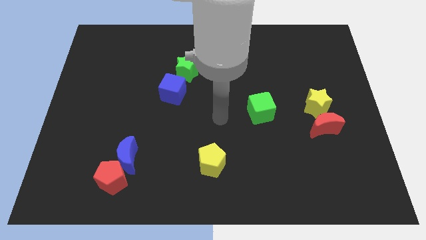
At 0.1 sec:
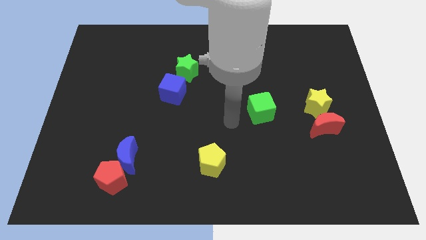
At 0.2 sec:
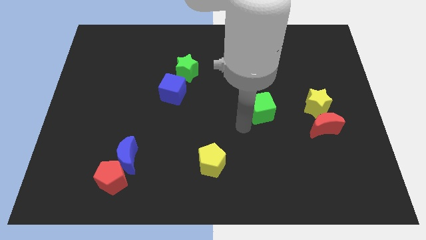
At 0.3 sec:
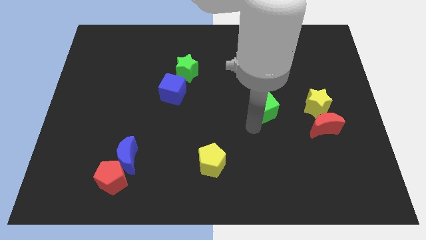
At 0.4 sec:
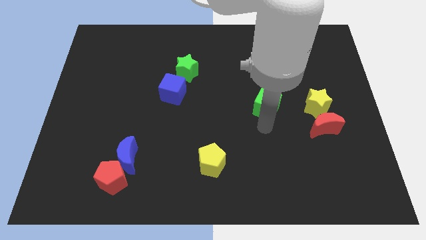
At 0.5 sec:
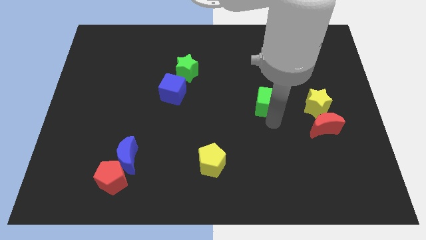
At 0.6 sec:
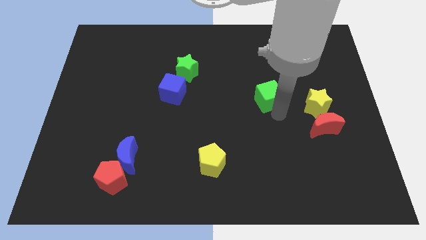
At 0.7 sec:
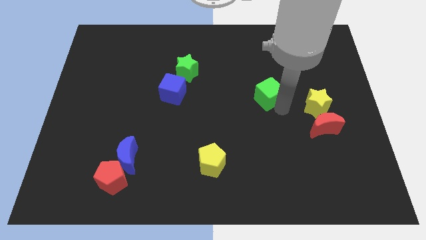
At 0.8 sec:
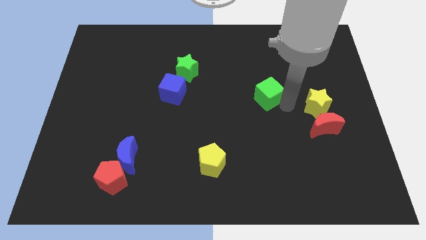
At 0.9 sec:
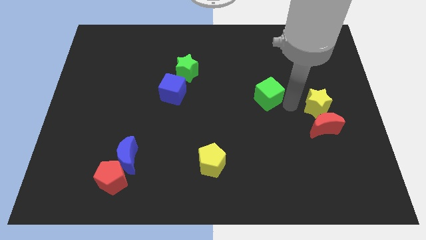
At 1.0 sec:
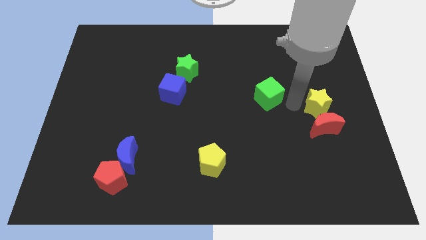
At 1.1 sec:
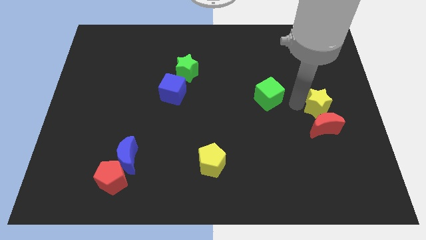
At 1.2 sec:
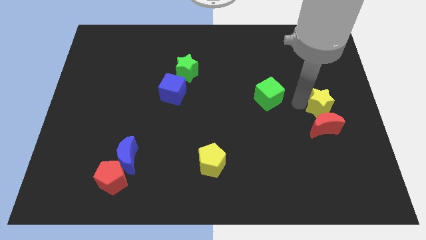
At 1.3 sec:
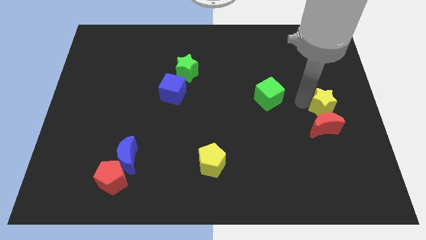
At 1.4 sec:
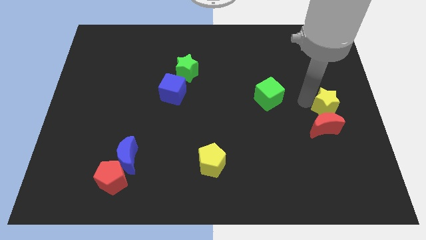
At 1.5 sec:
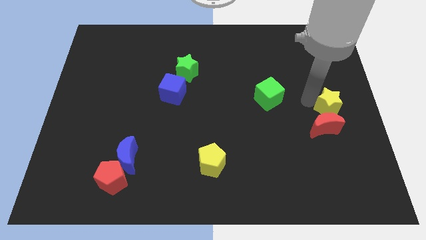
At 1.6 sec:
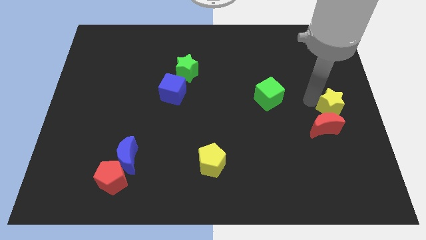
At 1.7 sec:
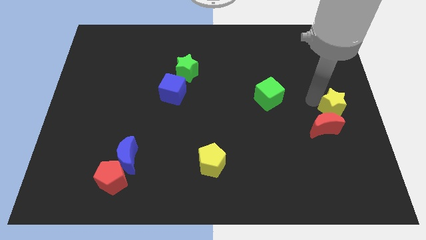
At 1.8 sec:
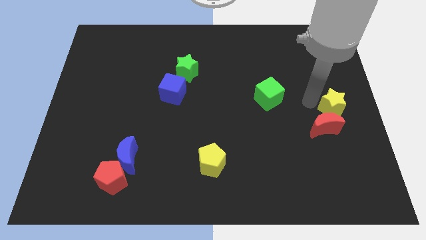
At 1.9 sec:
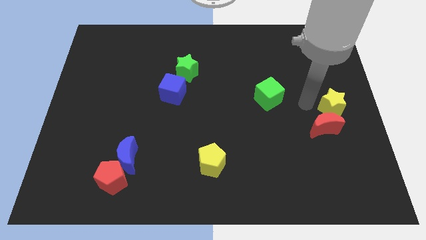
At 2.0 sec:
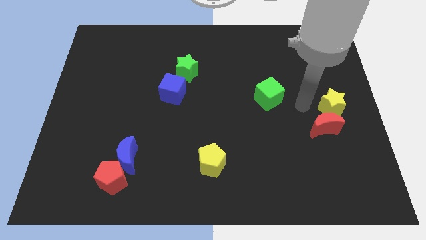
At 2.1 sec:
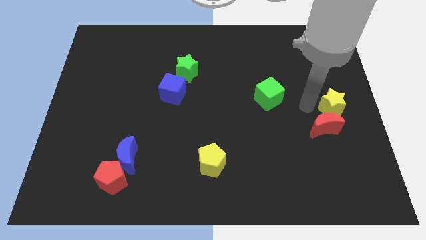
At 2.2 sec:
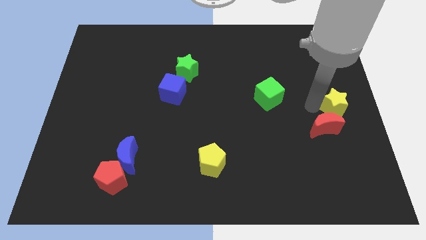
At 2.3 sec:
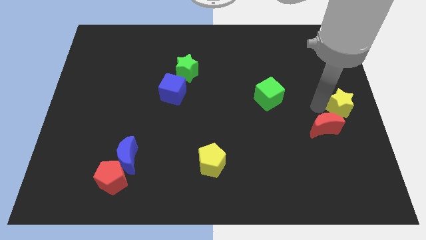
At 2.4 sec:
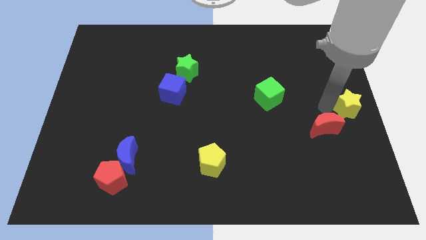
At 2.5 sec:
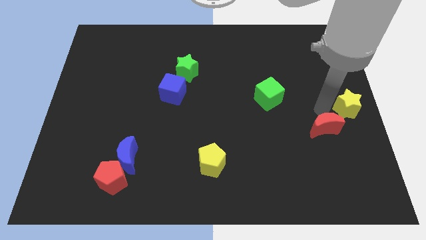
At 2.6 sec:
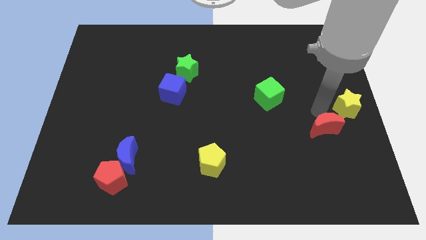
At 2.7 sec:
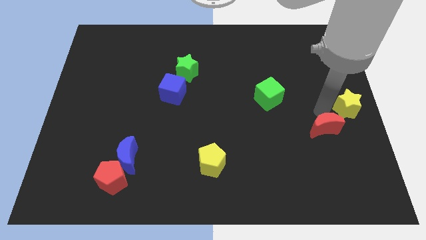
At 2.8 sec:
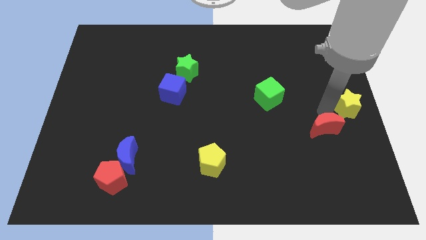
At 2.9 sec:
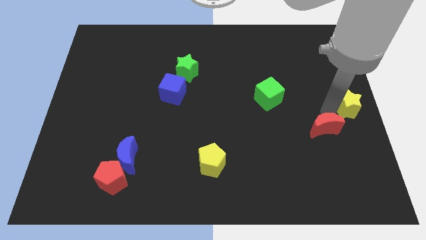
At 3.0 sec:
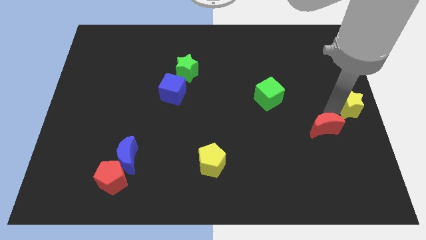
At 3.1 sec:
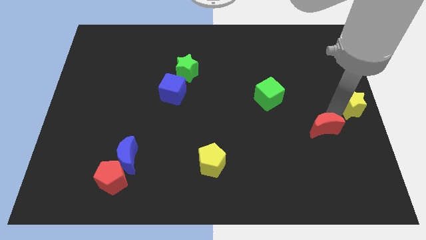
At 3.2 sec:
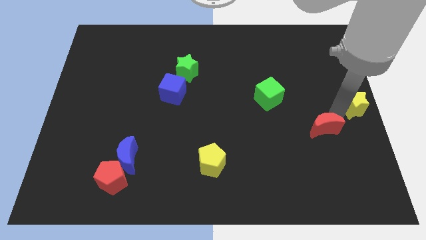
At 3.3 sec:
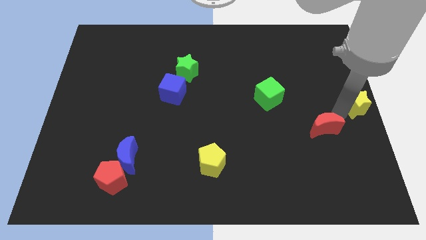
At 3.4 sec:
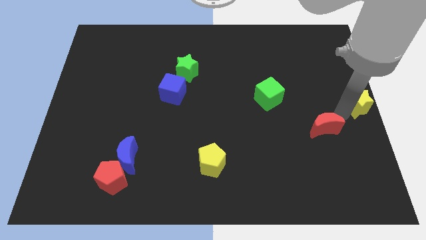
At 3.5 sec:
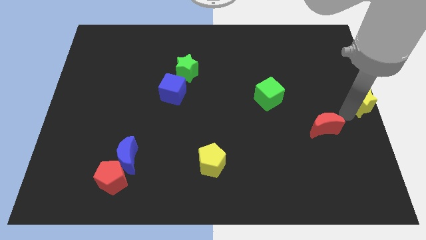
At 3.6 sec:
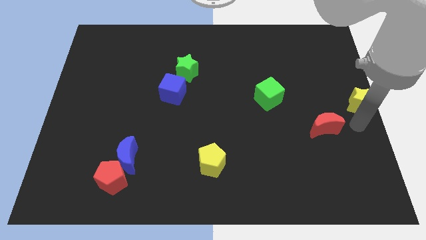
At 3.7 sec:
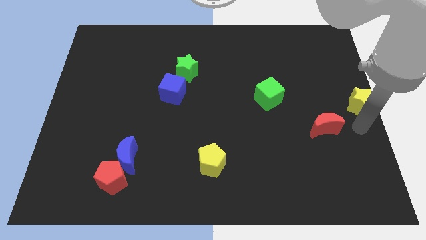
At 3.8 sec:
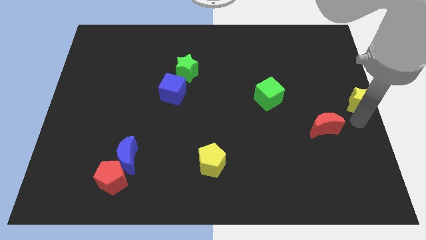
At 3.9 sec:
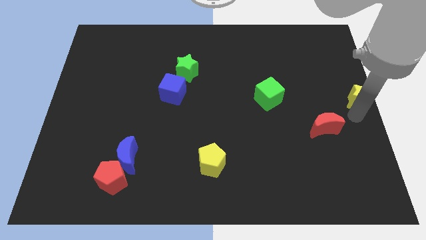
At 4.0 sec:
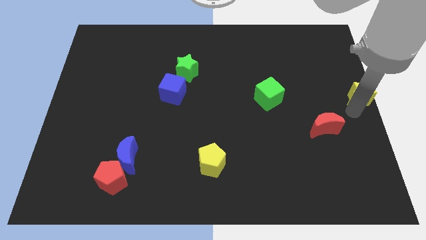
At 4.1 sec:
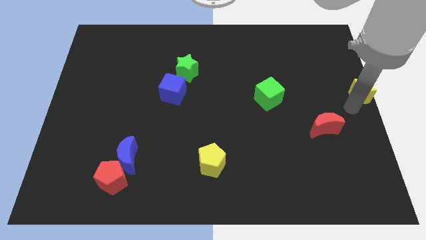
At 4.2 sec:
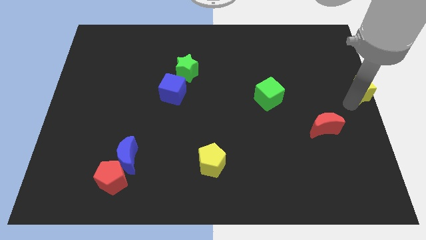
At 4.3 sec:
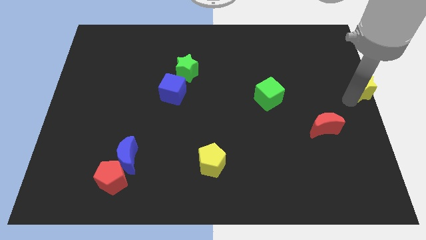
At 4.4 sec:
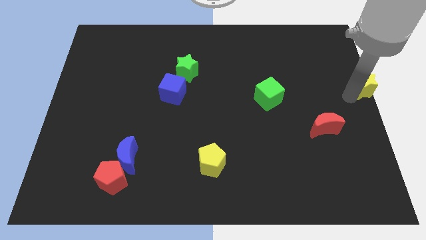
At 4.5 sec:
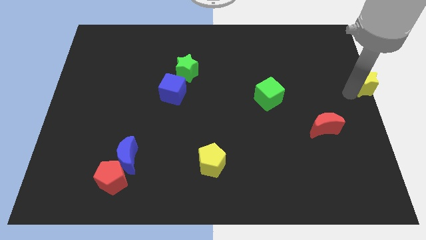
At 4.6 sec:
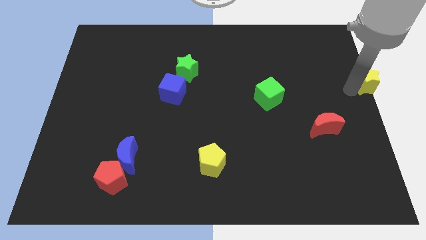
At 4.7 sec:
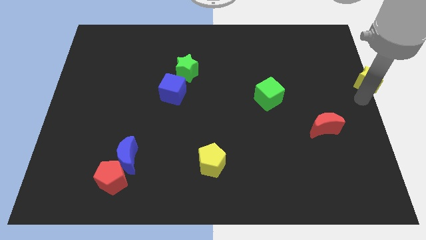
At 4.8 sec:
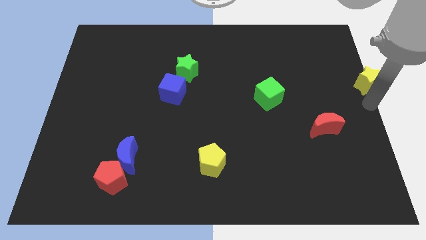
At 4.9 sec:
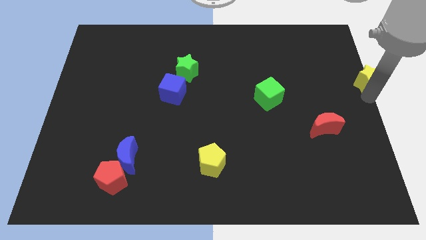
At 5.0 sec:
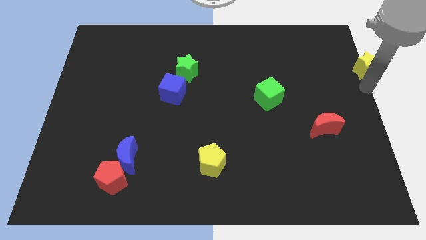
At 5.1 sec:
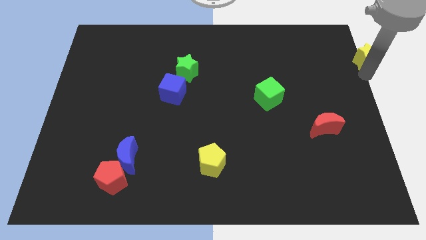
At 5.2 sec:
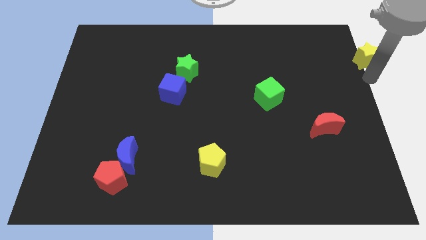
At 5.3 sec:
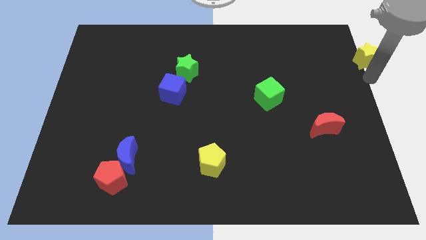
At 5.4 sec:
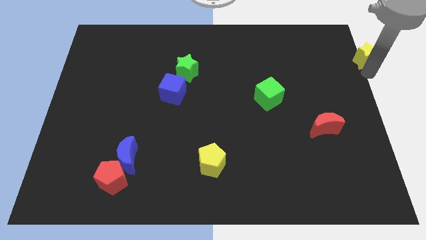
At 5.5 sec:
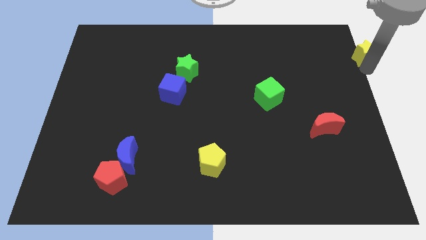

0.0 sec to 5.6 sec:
push the yellow star to the top right

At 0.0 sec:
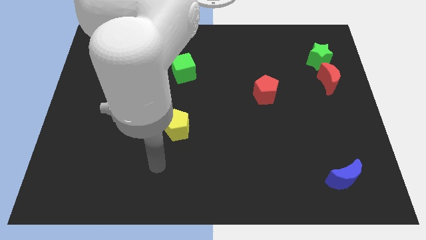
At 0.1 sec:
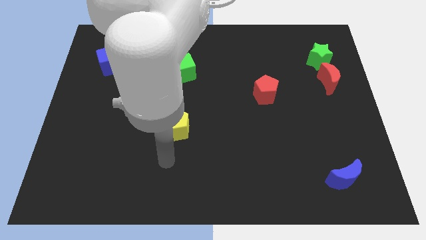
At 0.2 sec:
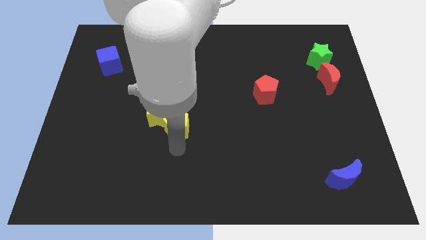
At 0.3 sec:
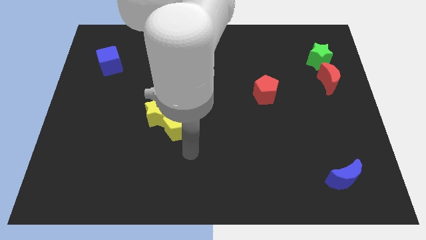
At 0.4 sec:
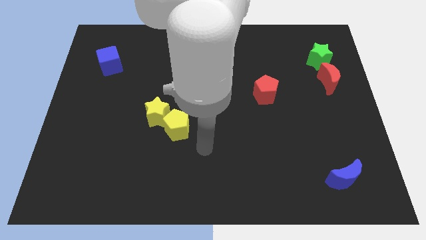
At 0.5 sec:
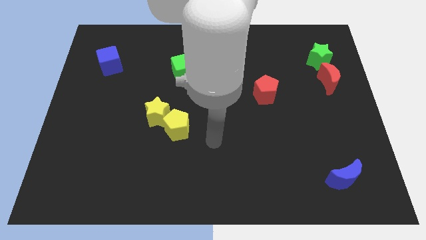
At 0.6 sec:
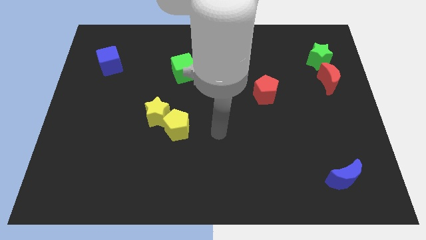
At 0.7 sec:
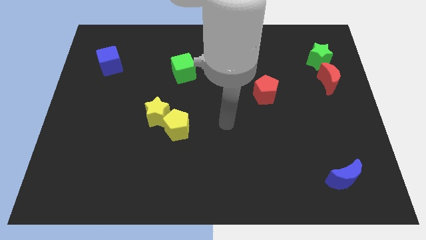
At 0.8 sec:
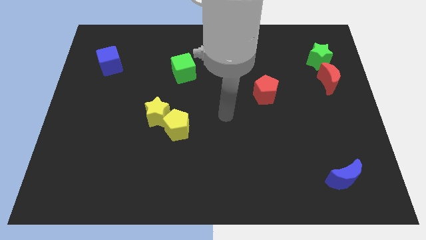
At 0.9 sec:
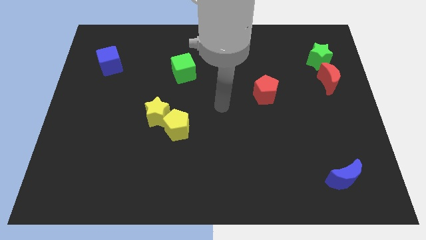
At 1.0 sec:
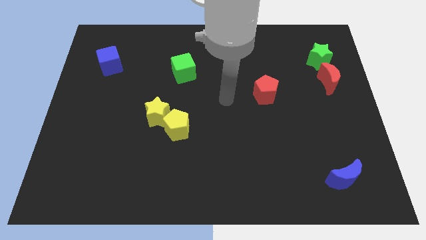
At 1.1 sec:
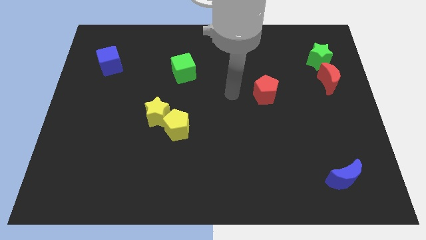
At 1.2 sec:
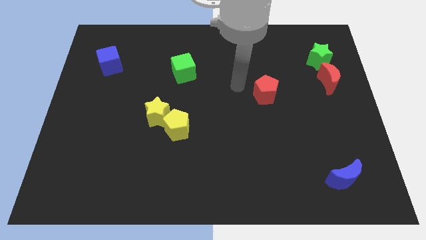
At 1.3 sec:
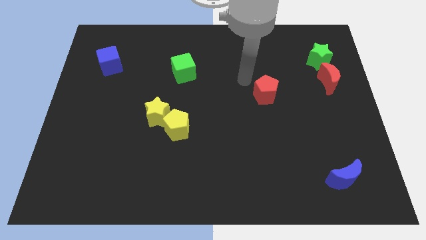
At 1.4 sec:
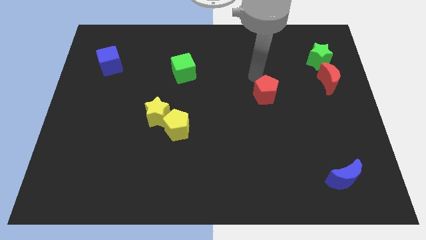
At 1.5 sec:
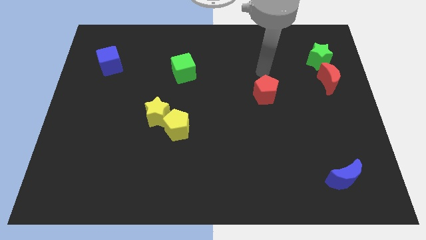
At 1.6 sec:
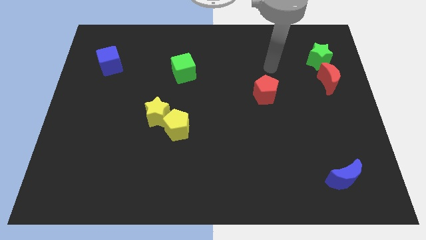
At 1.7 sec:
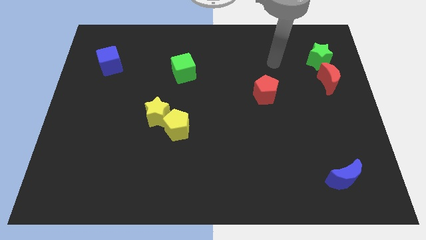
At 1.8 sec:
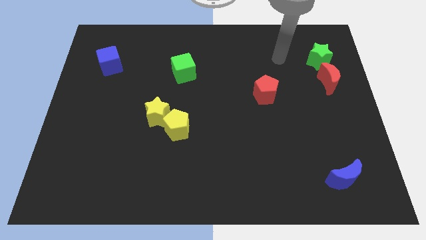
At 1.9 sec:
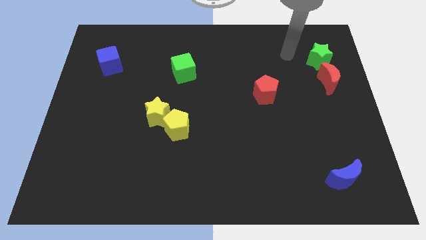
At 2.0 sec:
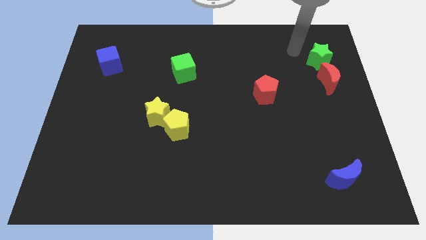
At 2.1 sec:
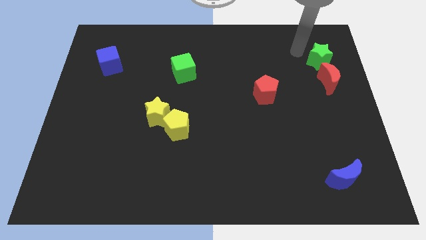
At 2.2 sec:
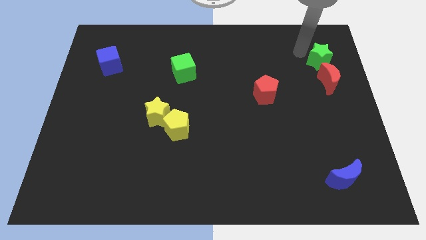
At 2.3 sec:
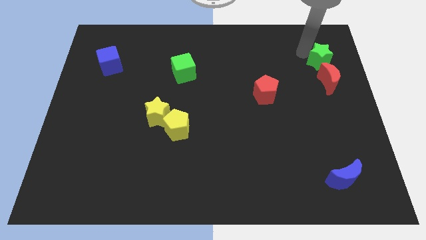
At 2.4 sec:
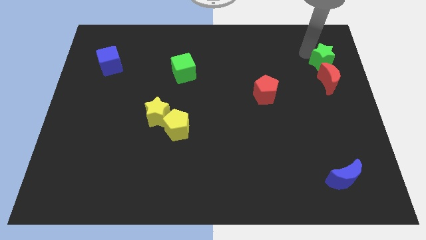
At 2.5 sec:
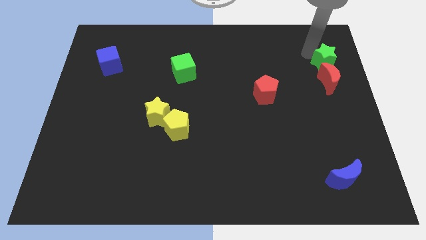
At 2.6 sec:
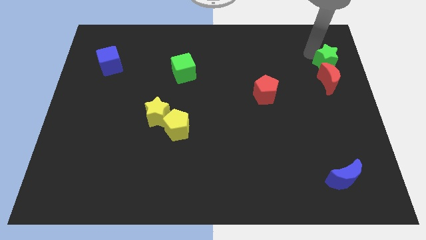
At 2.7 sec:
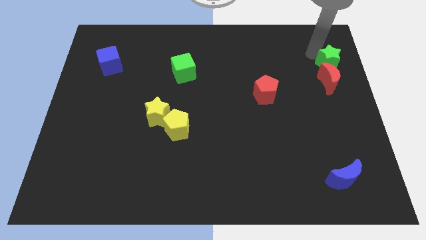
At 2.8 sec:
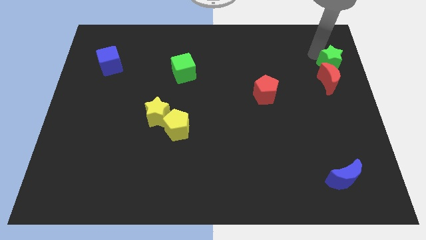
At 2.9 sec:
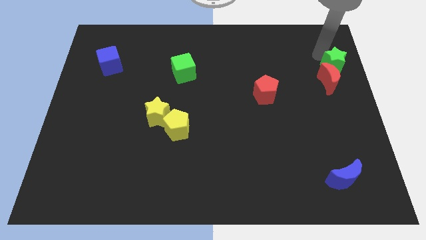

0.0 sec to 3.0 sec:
put the green star to the right side of the board
